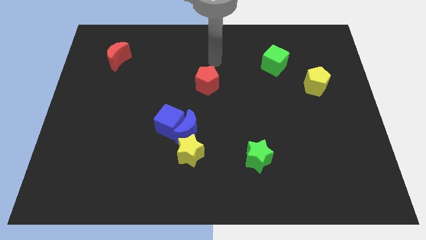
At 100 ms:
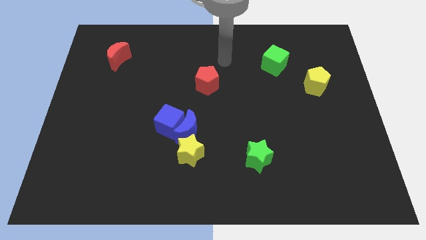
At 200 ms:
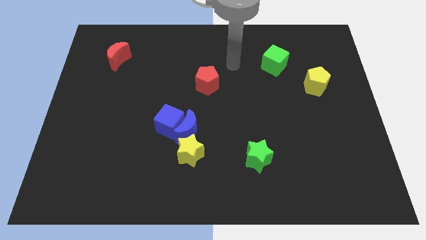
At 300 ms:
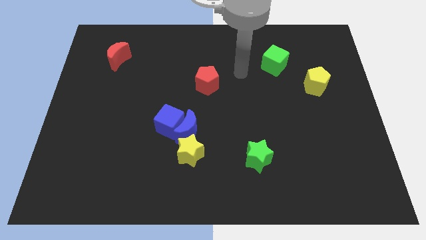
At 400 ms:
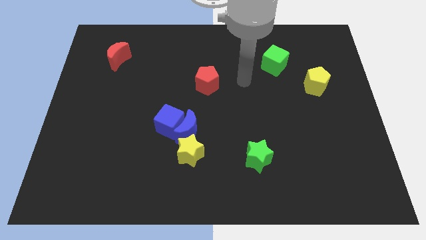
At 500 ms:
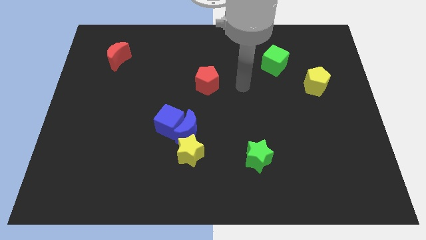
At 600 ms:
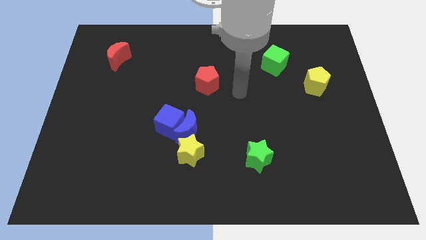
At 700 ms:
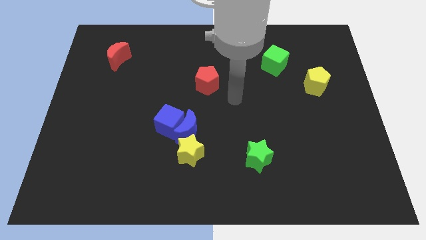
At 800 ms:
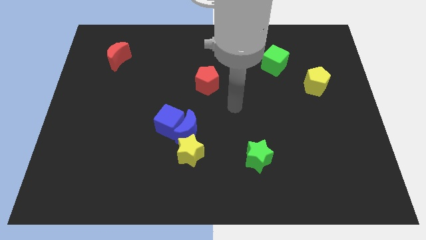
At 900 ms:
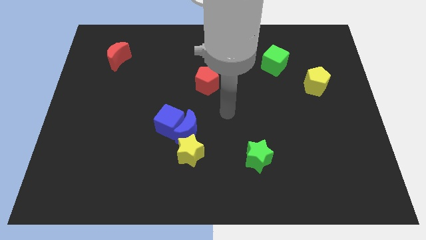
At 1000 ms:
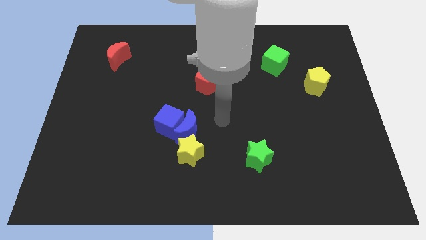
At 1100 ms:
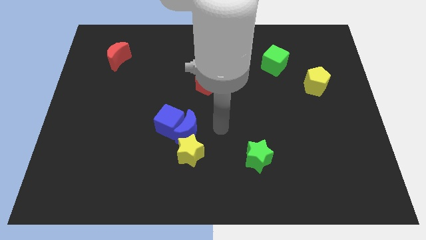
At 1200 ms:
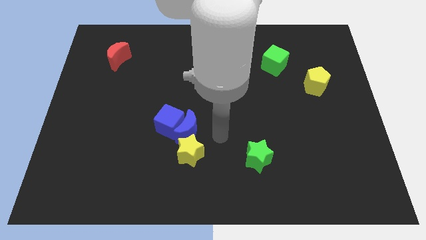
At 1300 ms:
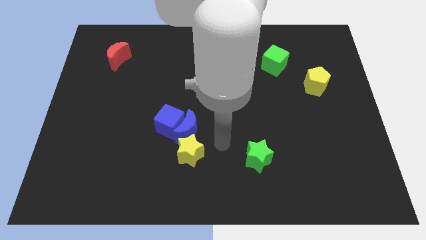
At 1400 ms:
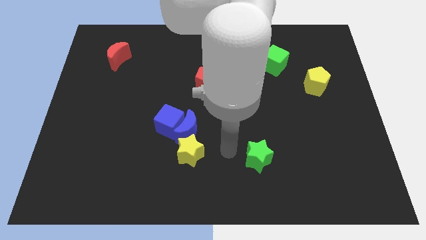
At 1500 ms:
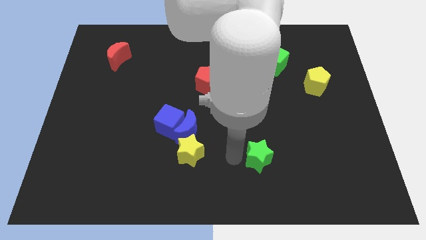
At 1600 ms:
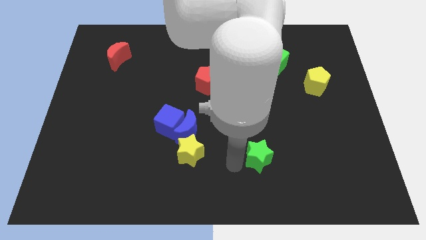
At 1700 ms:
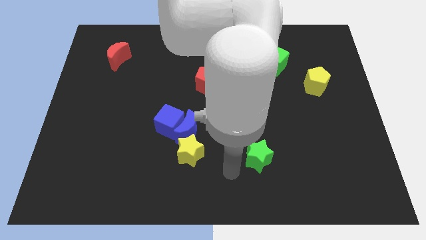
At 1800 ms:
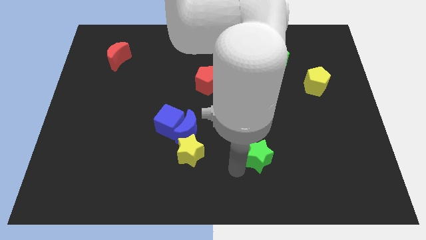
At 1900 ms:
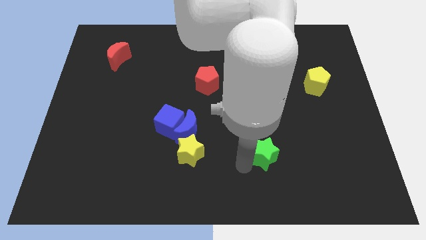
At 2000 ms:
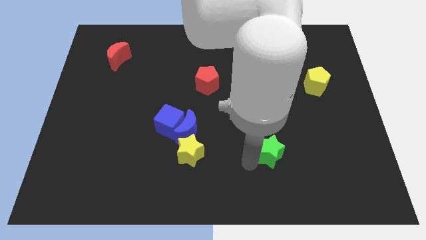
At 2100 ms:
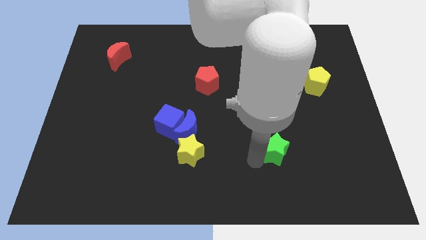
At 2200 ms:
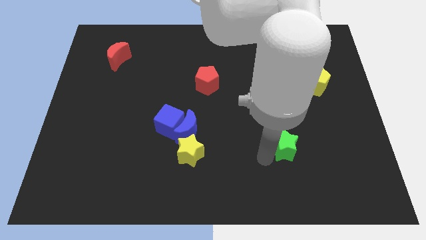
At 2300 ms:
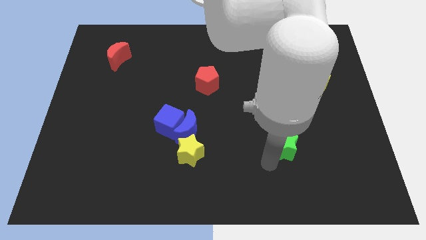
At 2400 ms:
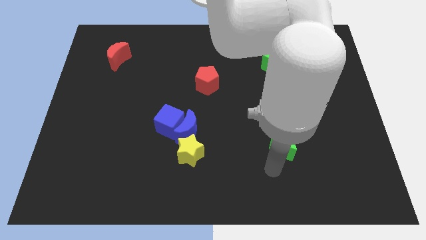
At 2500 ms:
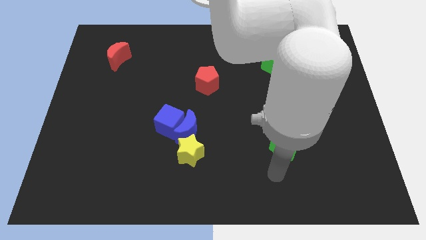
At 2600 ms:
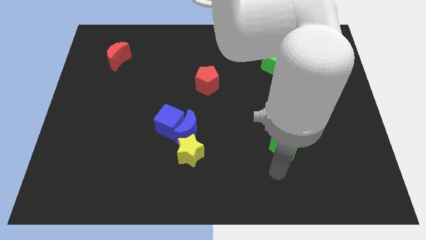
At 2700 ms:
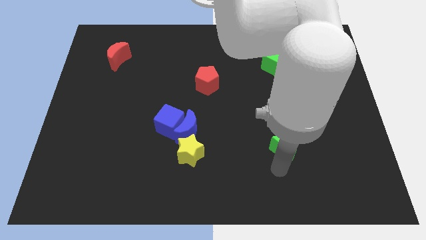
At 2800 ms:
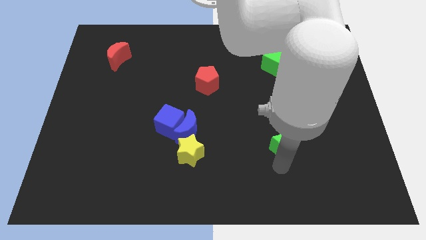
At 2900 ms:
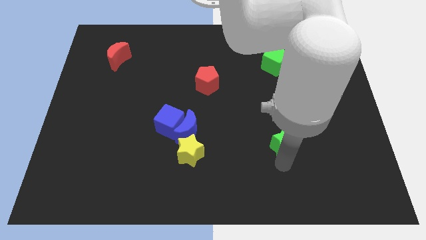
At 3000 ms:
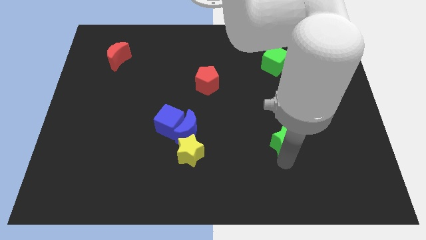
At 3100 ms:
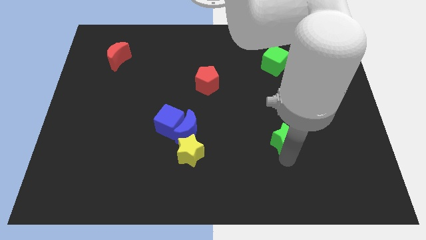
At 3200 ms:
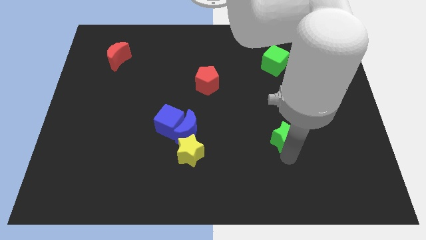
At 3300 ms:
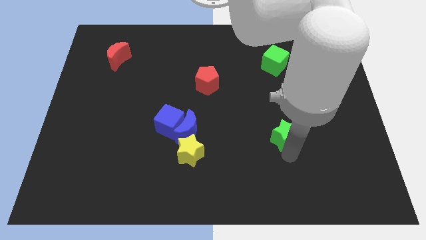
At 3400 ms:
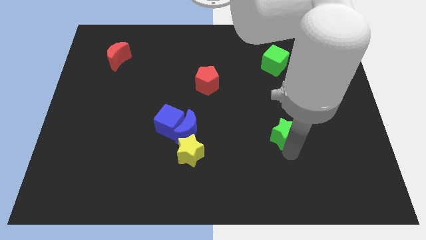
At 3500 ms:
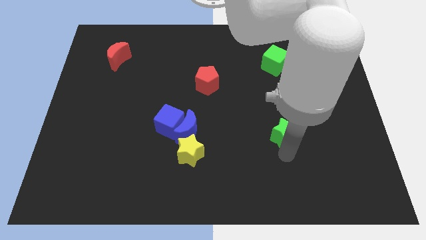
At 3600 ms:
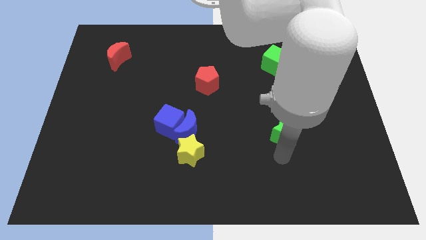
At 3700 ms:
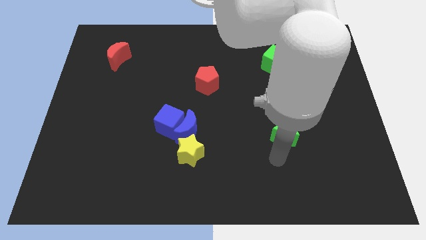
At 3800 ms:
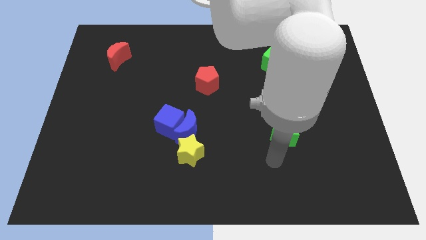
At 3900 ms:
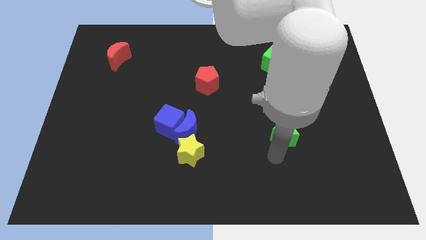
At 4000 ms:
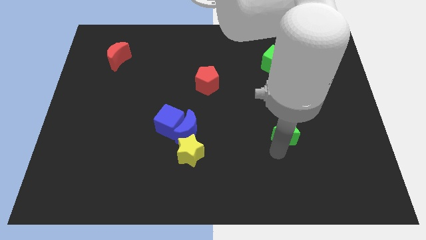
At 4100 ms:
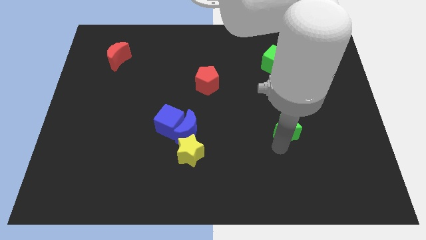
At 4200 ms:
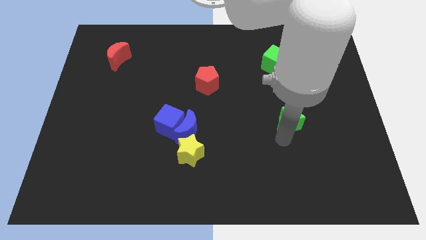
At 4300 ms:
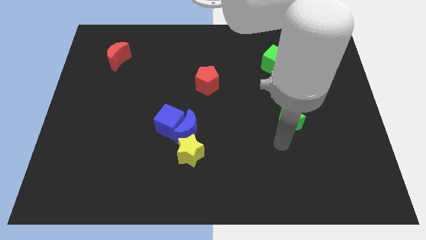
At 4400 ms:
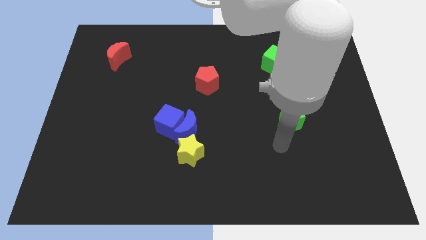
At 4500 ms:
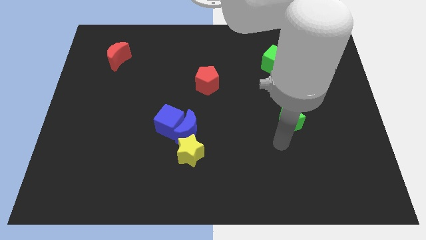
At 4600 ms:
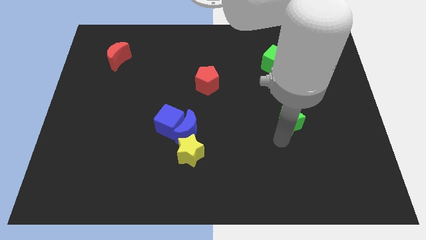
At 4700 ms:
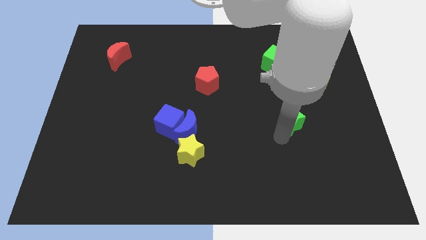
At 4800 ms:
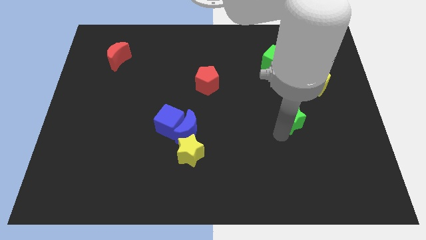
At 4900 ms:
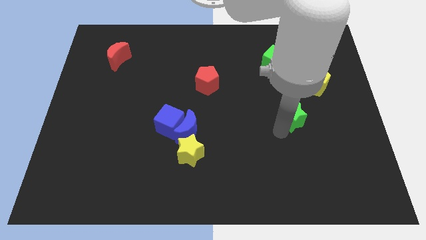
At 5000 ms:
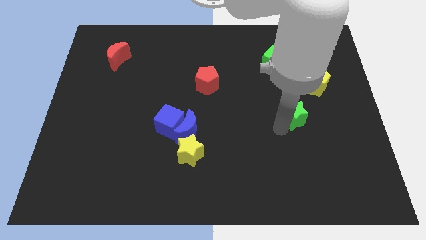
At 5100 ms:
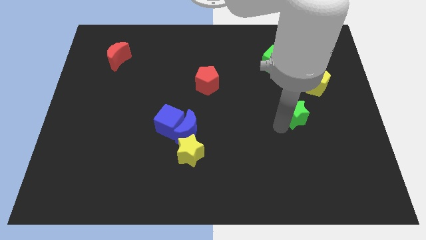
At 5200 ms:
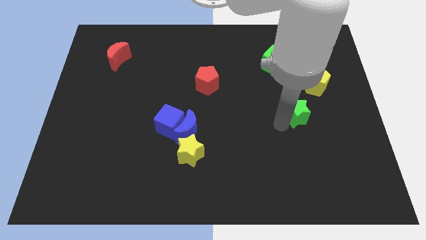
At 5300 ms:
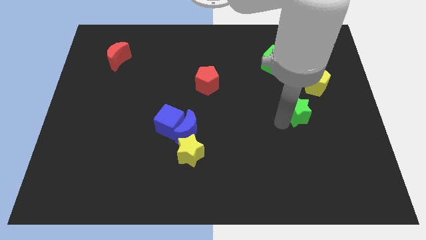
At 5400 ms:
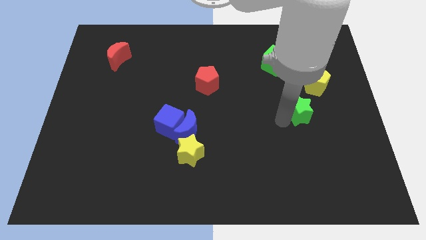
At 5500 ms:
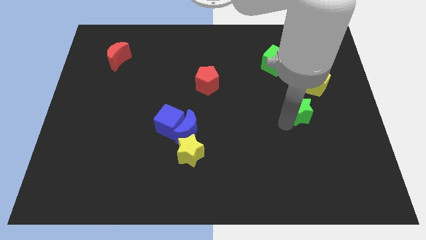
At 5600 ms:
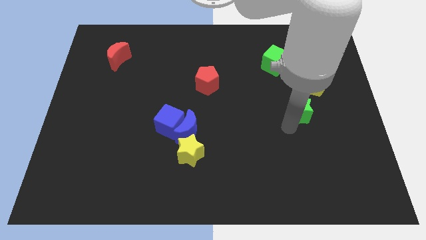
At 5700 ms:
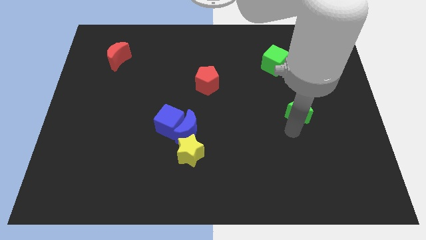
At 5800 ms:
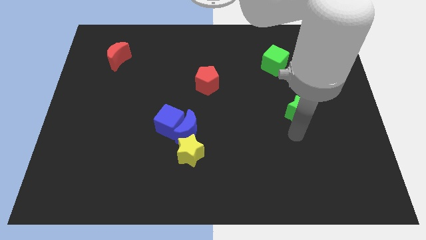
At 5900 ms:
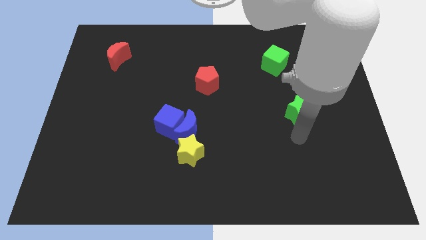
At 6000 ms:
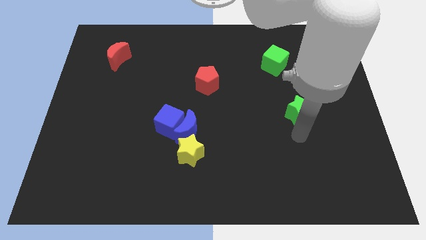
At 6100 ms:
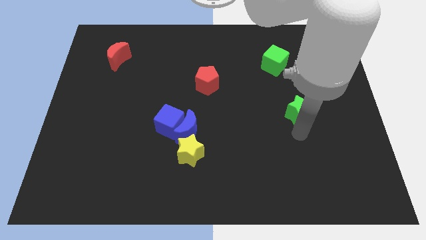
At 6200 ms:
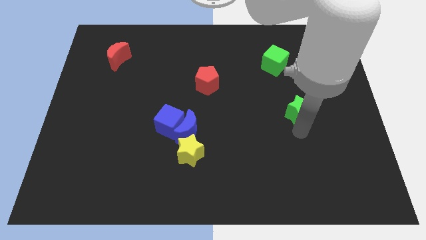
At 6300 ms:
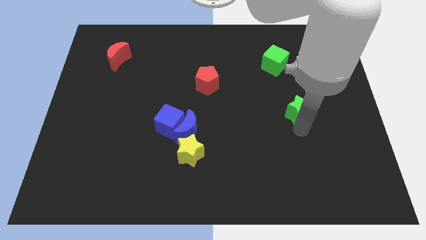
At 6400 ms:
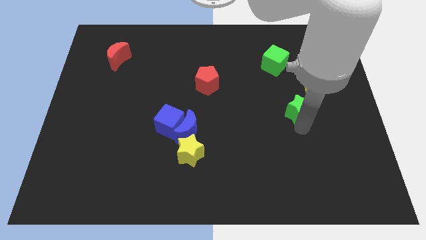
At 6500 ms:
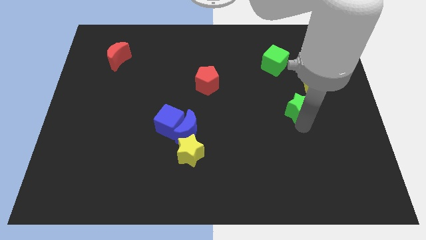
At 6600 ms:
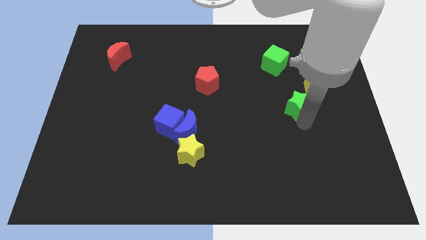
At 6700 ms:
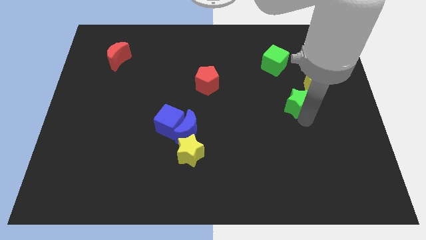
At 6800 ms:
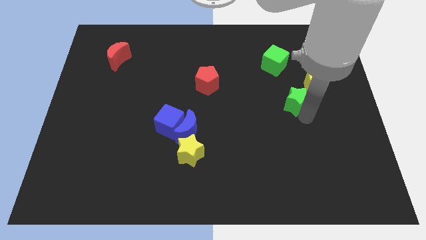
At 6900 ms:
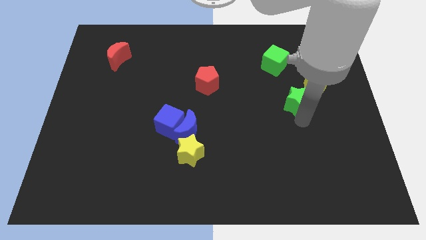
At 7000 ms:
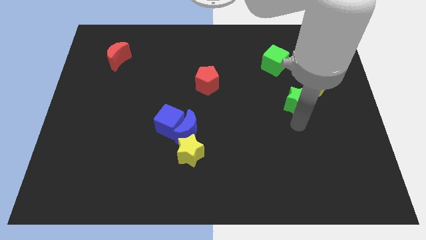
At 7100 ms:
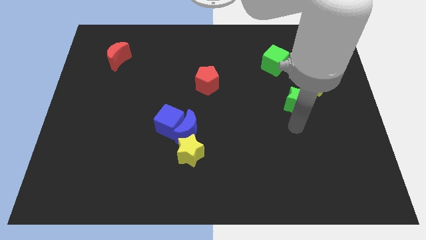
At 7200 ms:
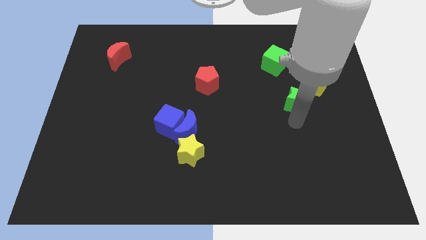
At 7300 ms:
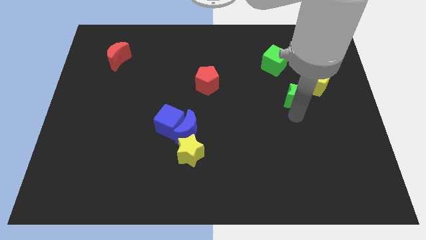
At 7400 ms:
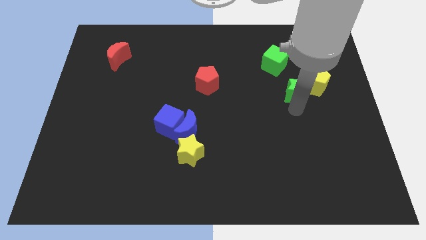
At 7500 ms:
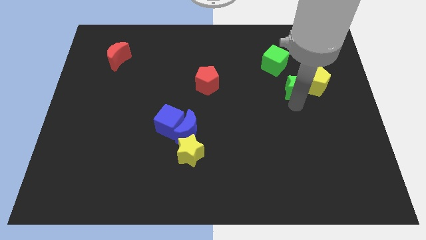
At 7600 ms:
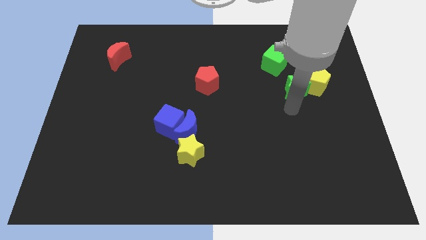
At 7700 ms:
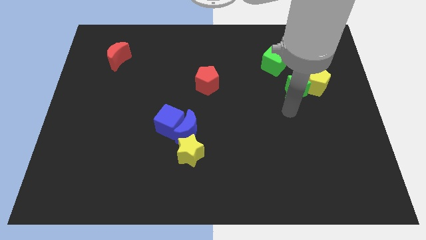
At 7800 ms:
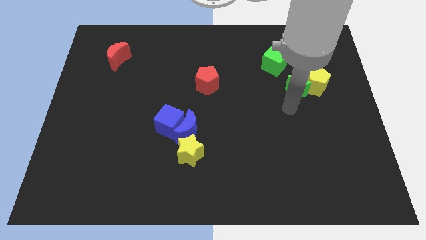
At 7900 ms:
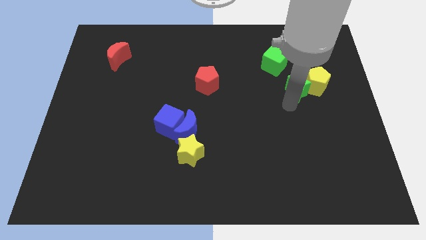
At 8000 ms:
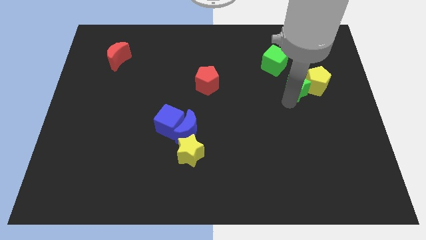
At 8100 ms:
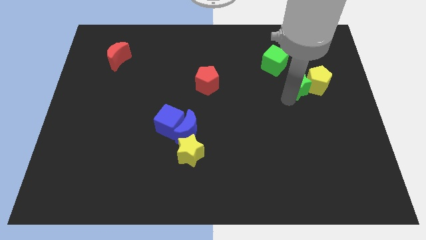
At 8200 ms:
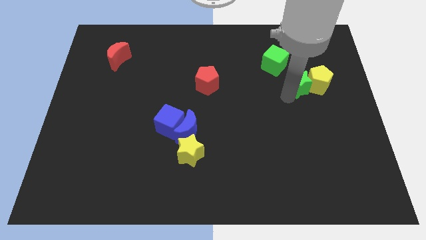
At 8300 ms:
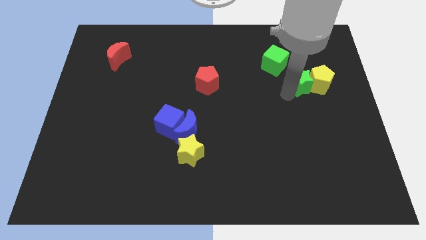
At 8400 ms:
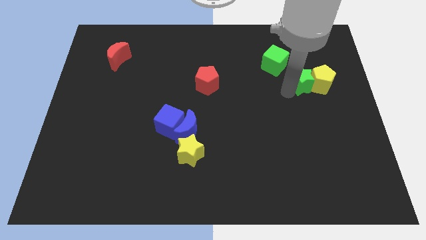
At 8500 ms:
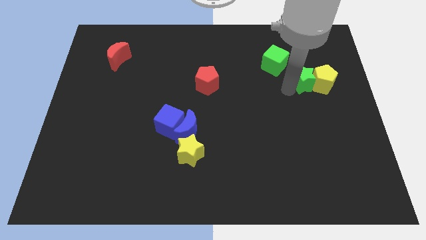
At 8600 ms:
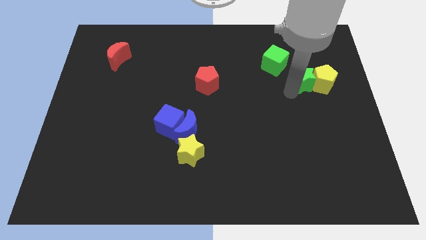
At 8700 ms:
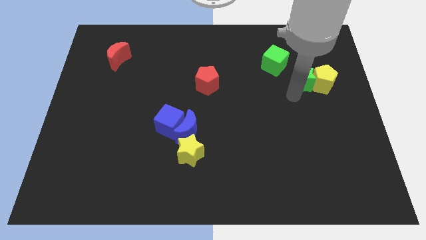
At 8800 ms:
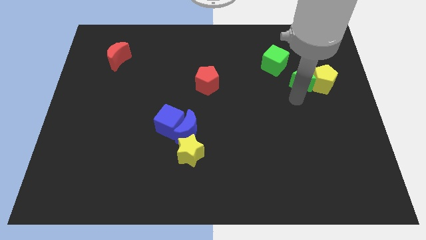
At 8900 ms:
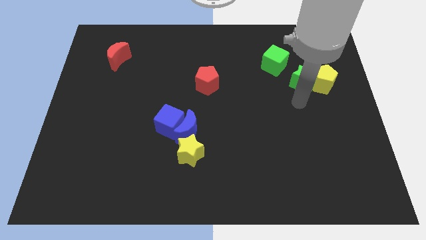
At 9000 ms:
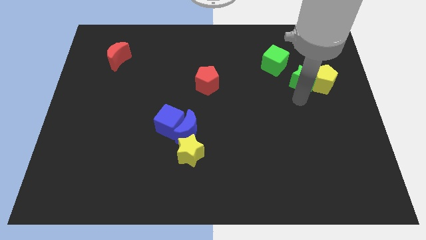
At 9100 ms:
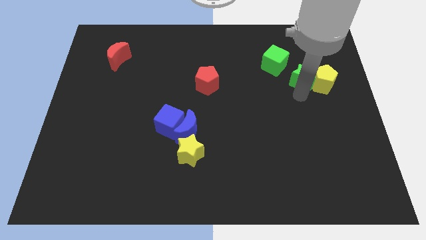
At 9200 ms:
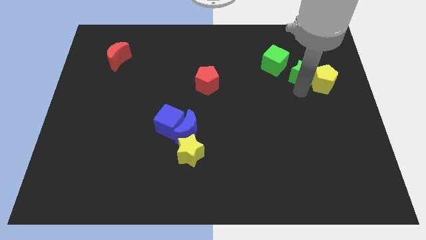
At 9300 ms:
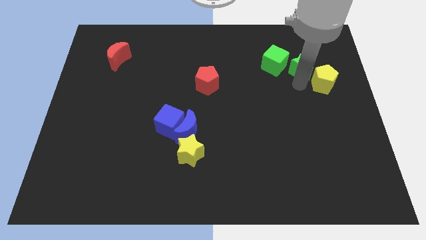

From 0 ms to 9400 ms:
put the green star to the top side of the yellow pentagon
